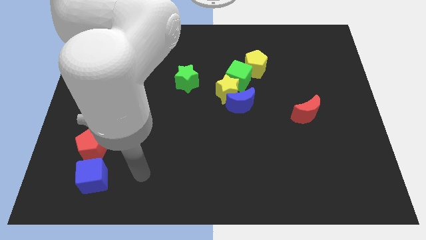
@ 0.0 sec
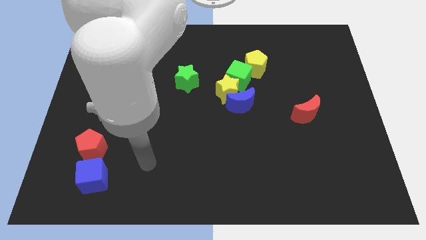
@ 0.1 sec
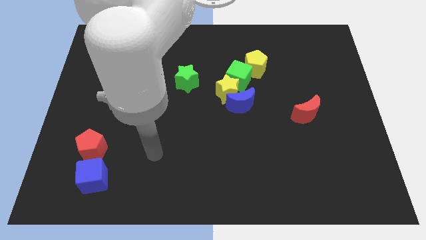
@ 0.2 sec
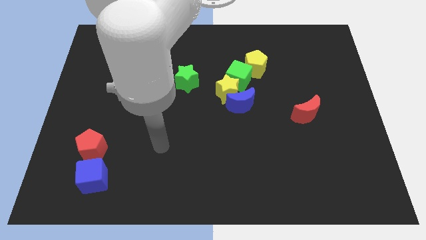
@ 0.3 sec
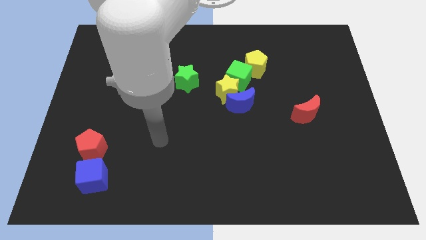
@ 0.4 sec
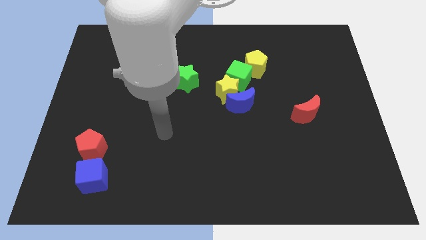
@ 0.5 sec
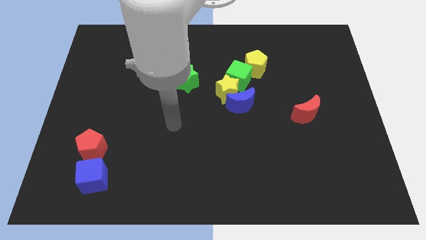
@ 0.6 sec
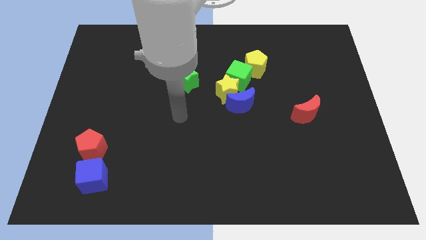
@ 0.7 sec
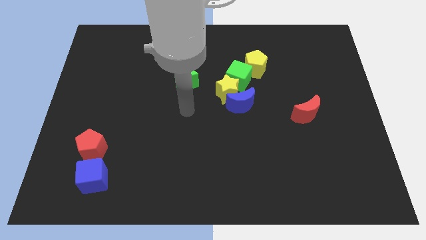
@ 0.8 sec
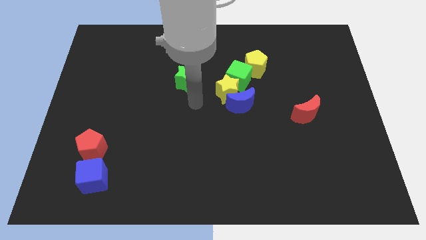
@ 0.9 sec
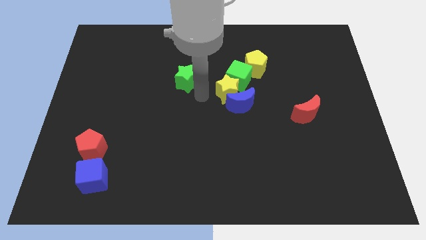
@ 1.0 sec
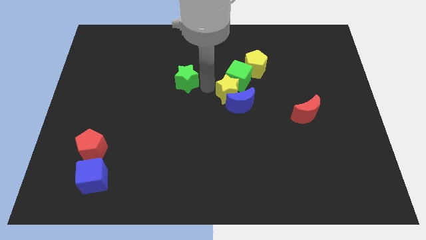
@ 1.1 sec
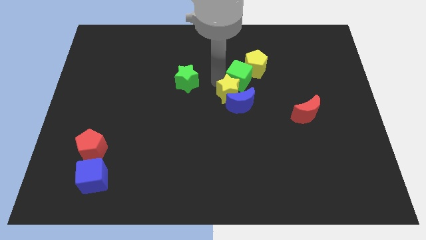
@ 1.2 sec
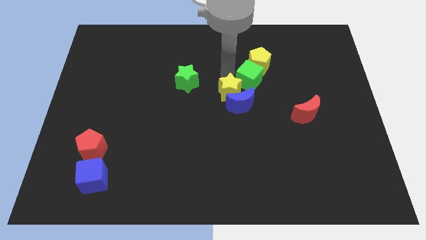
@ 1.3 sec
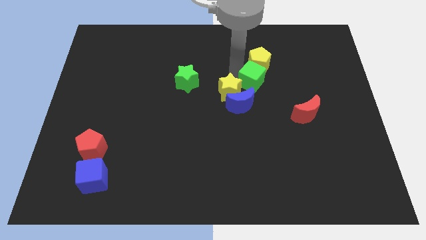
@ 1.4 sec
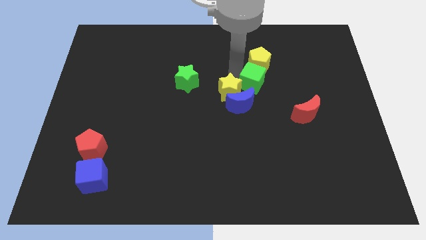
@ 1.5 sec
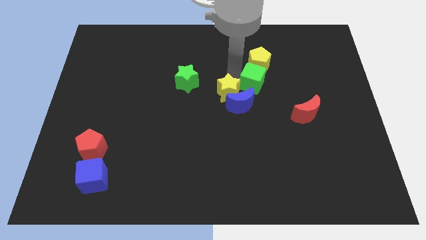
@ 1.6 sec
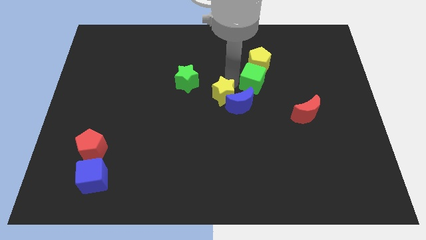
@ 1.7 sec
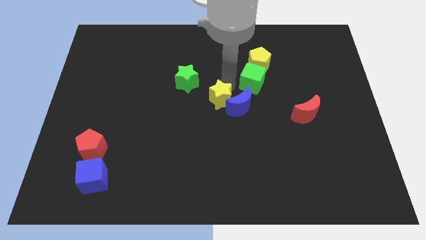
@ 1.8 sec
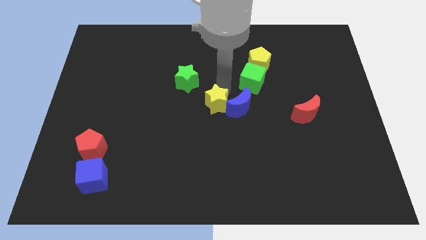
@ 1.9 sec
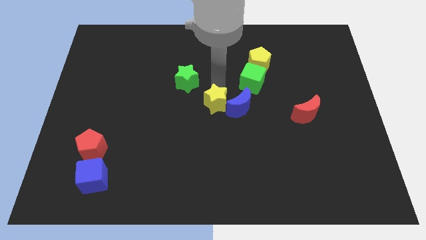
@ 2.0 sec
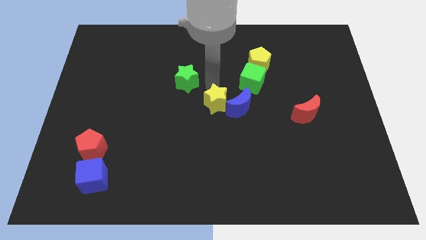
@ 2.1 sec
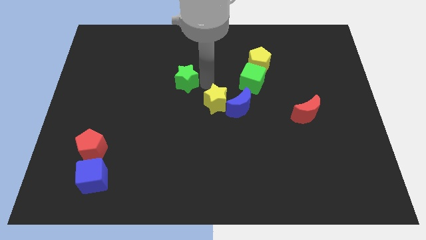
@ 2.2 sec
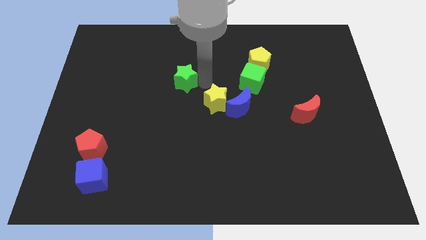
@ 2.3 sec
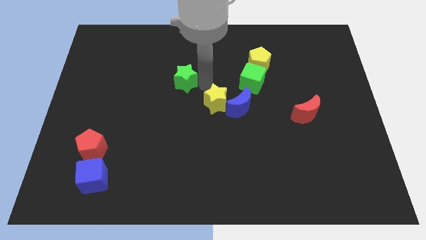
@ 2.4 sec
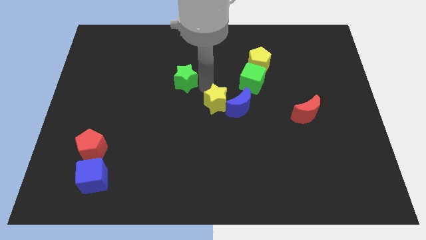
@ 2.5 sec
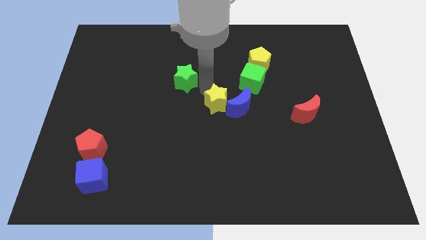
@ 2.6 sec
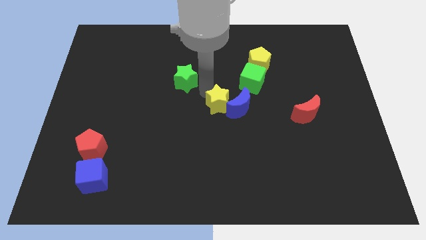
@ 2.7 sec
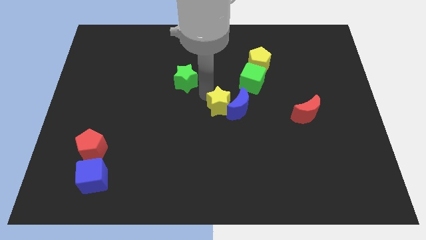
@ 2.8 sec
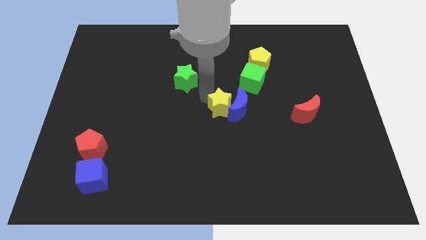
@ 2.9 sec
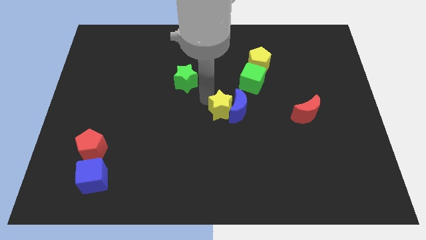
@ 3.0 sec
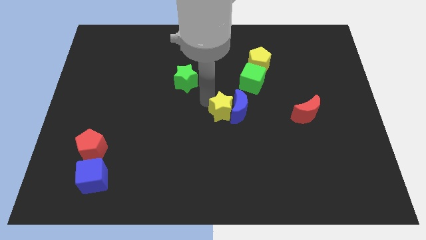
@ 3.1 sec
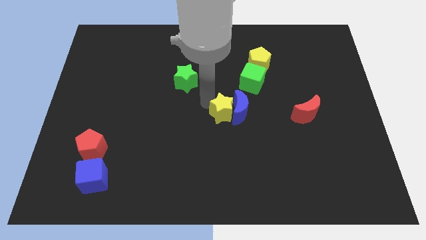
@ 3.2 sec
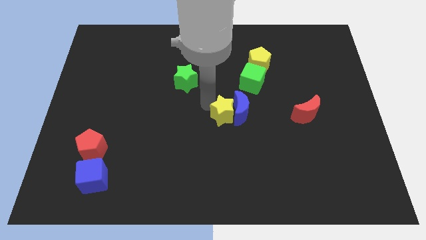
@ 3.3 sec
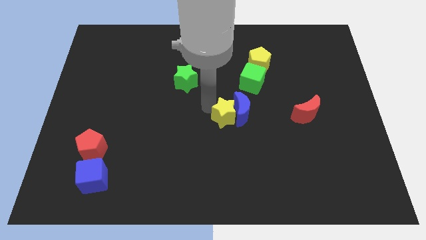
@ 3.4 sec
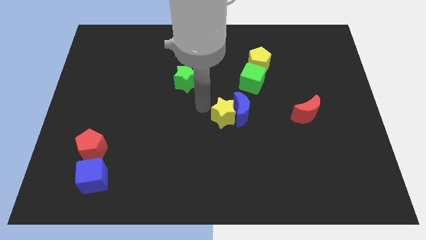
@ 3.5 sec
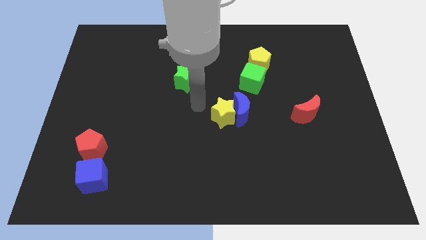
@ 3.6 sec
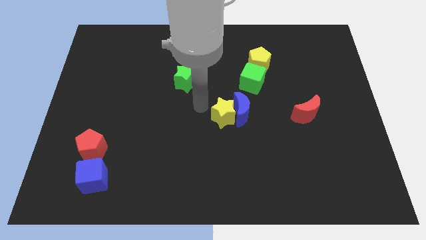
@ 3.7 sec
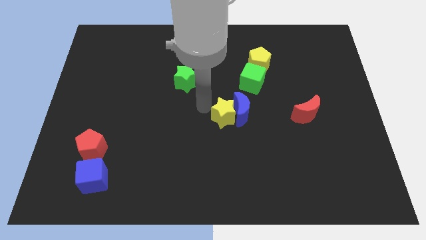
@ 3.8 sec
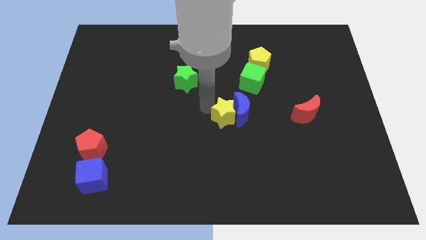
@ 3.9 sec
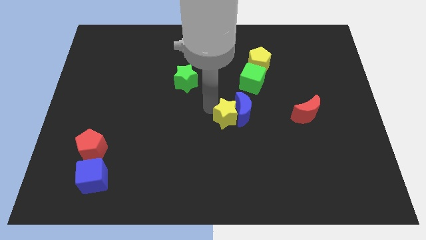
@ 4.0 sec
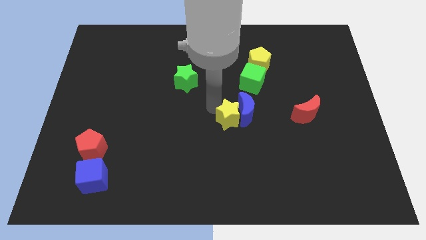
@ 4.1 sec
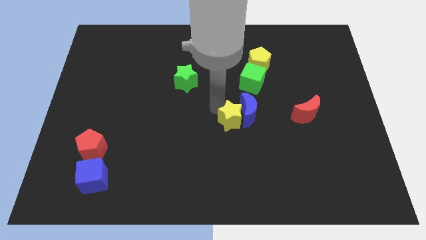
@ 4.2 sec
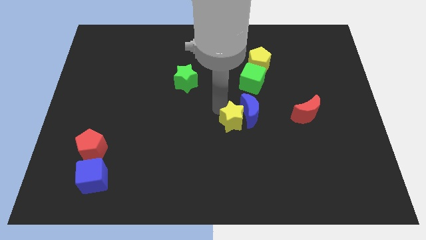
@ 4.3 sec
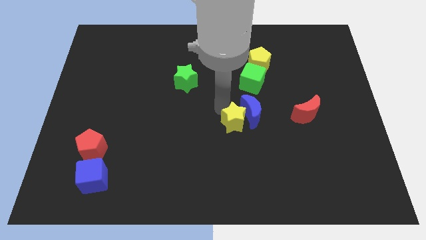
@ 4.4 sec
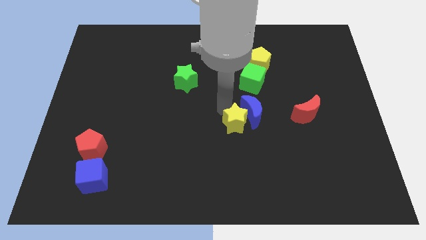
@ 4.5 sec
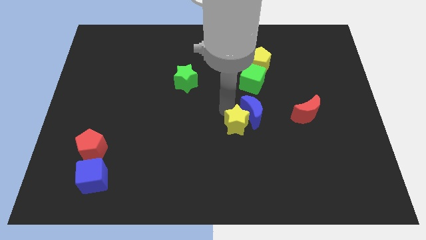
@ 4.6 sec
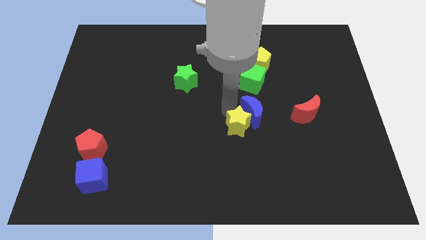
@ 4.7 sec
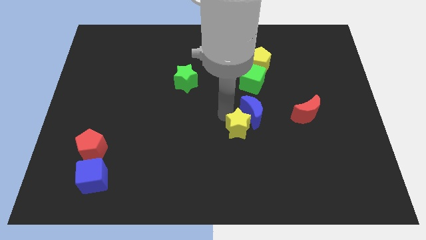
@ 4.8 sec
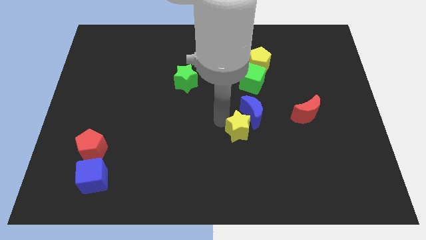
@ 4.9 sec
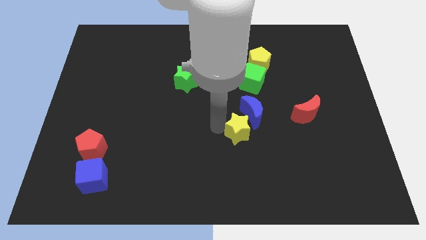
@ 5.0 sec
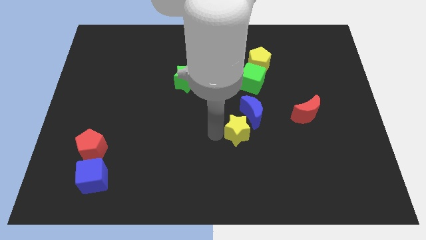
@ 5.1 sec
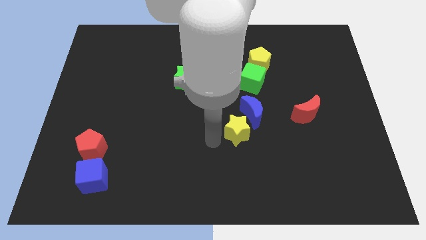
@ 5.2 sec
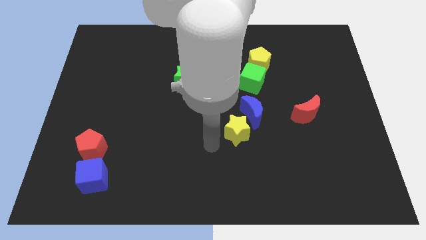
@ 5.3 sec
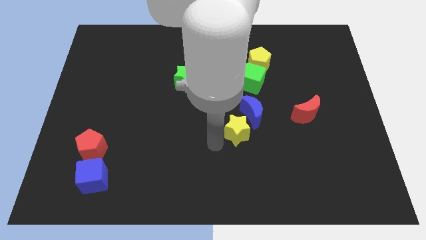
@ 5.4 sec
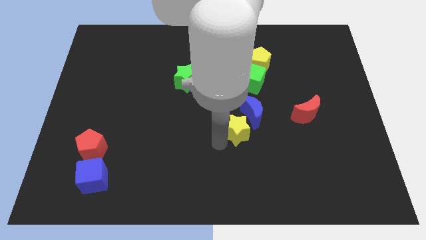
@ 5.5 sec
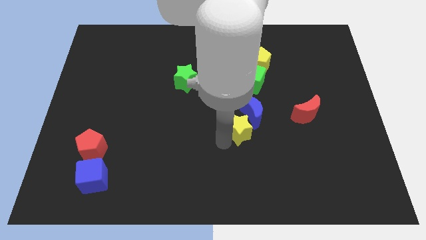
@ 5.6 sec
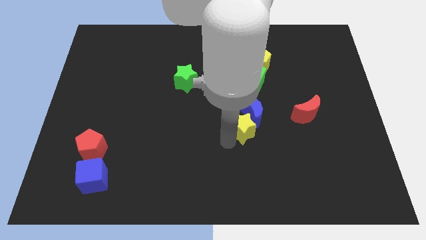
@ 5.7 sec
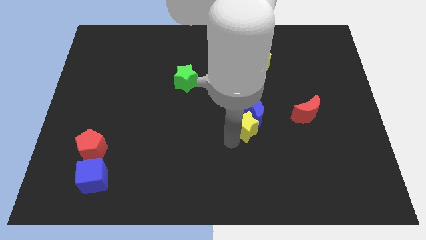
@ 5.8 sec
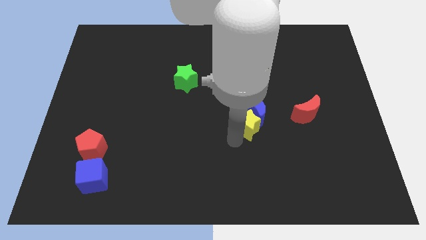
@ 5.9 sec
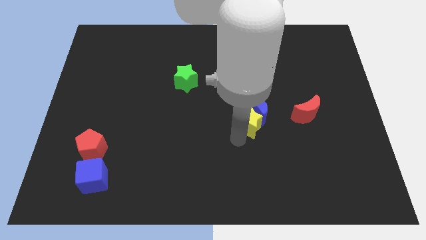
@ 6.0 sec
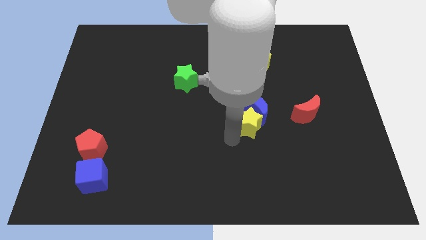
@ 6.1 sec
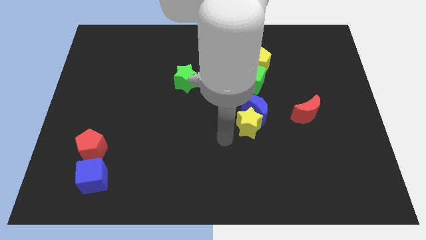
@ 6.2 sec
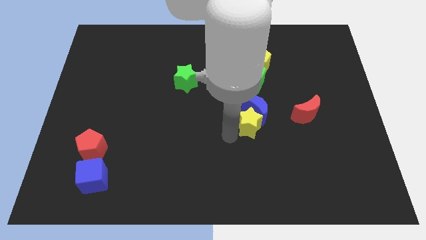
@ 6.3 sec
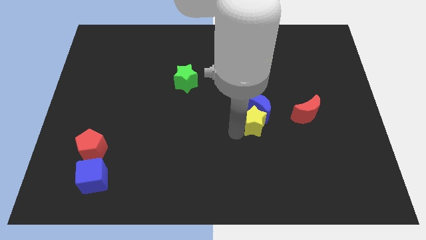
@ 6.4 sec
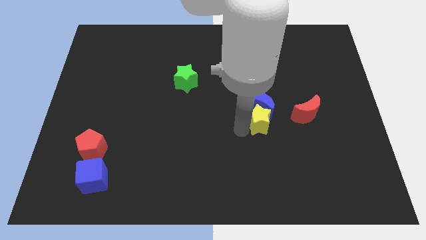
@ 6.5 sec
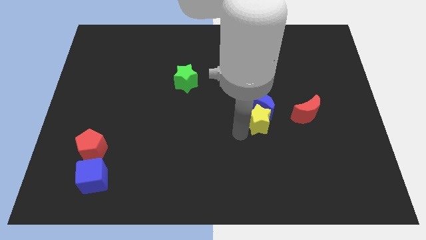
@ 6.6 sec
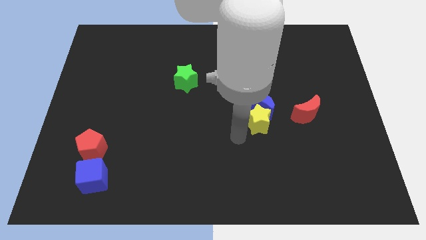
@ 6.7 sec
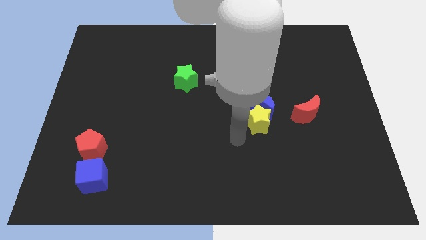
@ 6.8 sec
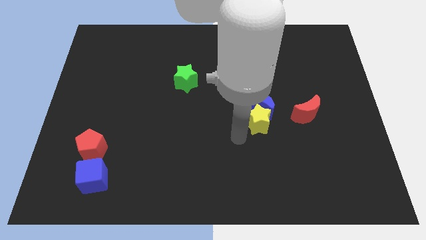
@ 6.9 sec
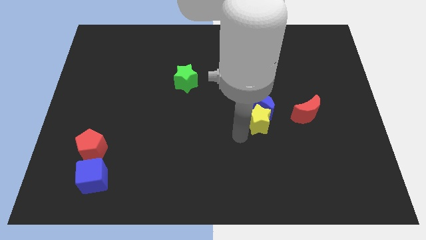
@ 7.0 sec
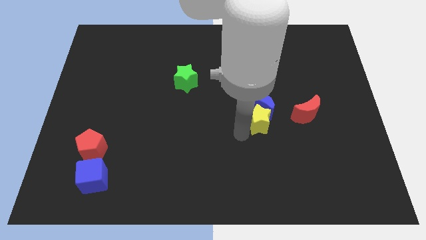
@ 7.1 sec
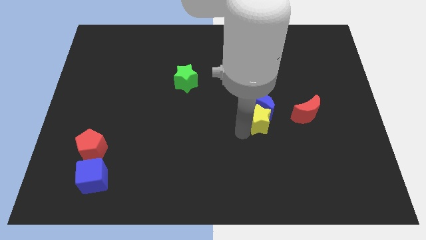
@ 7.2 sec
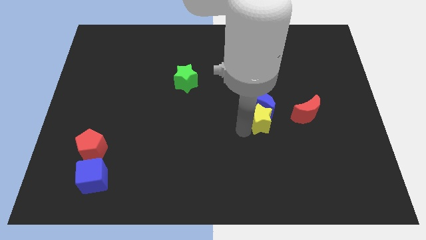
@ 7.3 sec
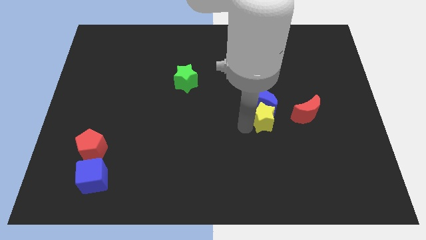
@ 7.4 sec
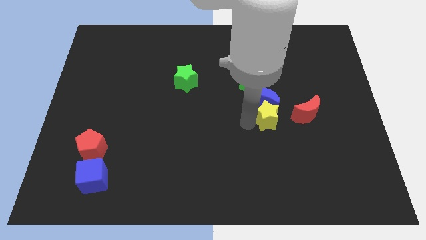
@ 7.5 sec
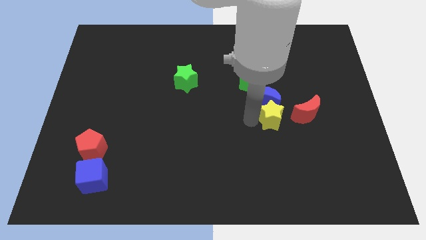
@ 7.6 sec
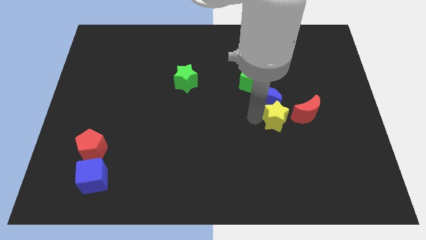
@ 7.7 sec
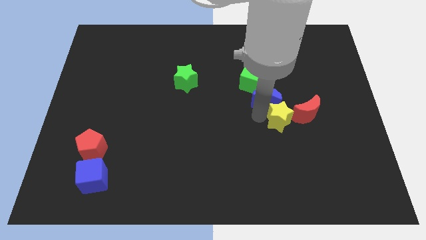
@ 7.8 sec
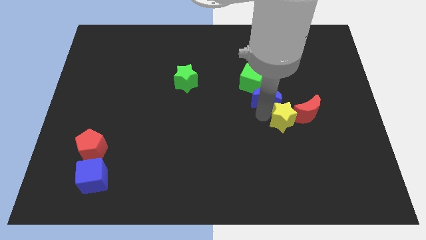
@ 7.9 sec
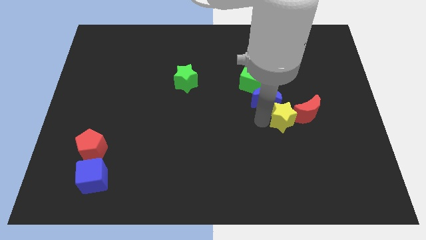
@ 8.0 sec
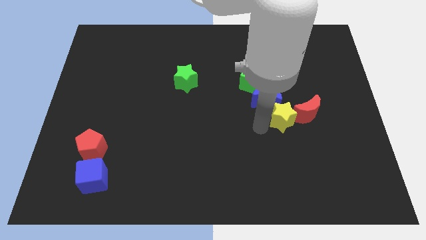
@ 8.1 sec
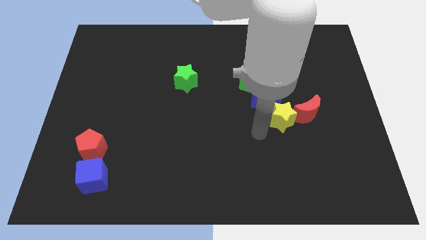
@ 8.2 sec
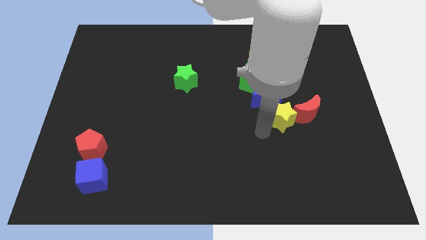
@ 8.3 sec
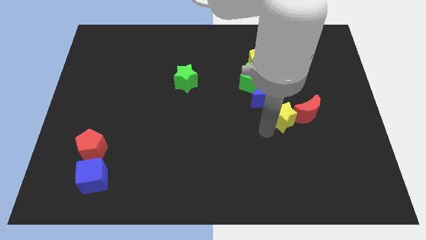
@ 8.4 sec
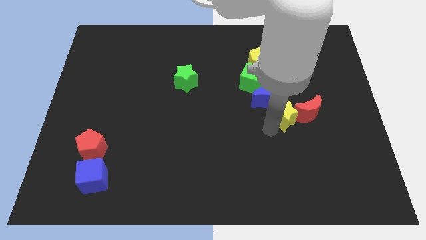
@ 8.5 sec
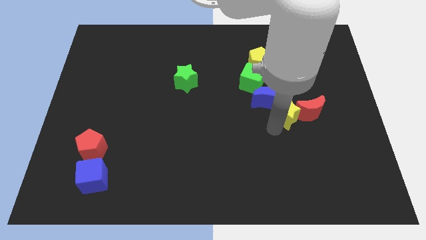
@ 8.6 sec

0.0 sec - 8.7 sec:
move the yellow star just right of the blue moon
